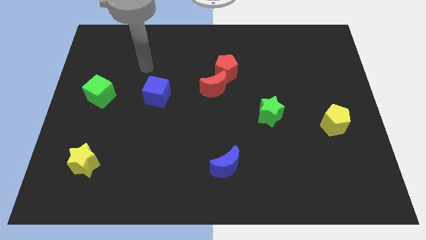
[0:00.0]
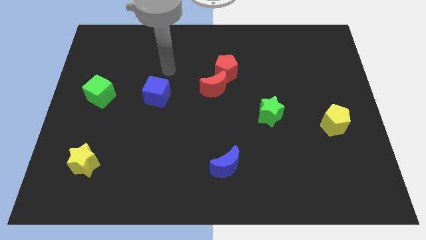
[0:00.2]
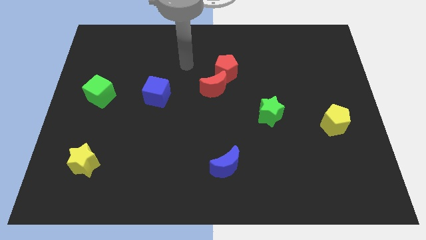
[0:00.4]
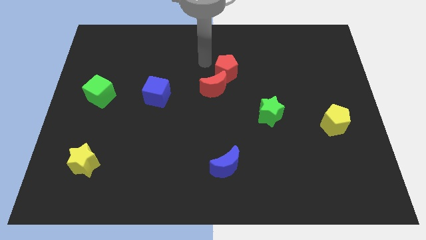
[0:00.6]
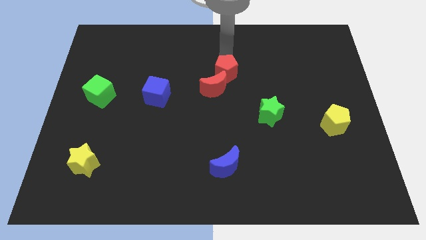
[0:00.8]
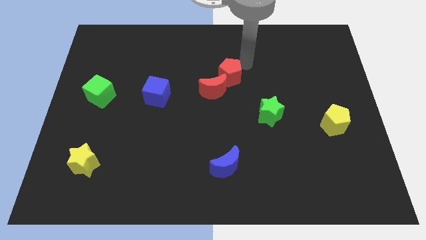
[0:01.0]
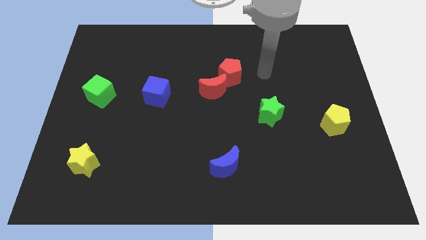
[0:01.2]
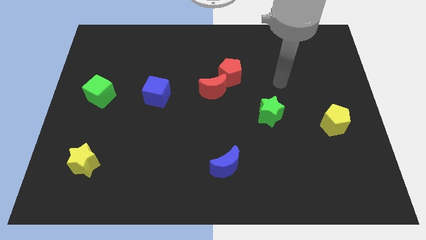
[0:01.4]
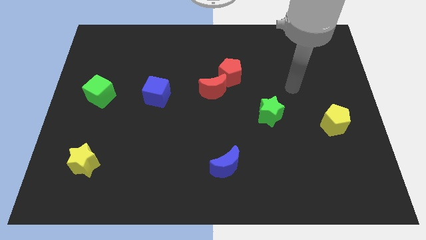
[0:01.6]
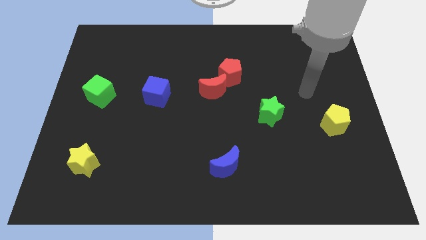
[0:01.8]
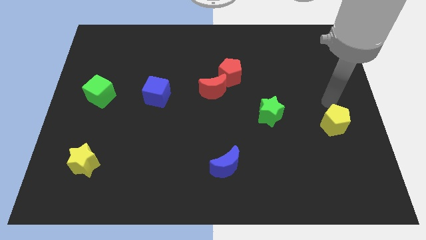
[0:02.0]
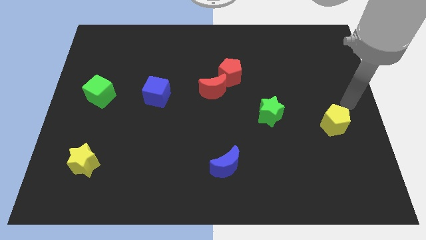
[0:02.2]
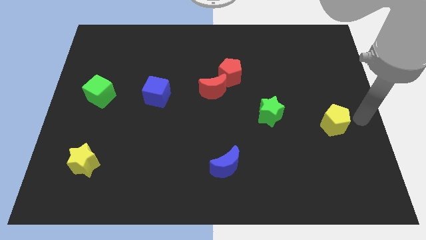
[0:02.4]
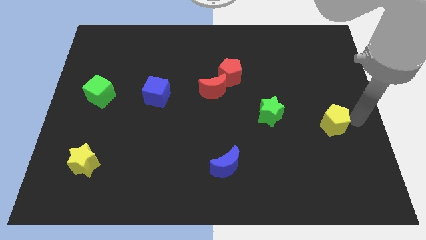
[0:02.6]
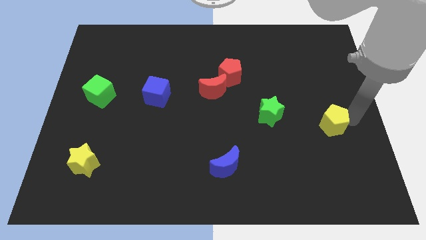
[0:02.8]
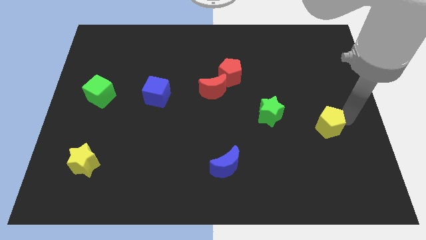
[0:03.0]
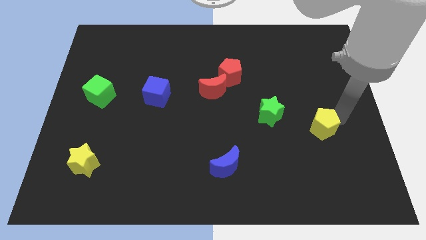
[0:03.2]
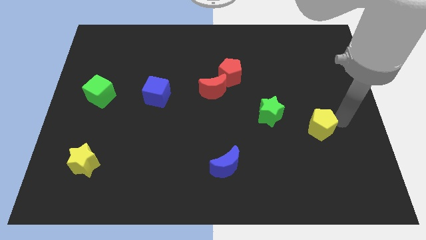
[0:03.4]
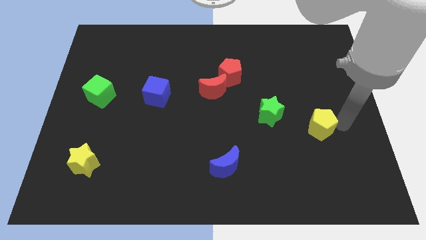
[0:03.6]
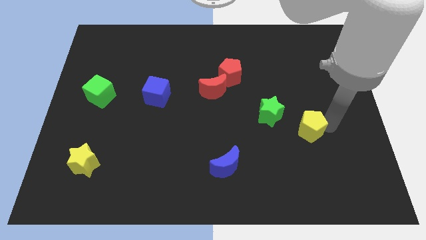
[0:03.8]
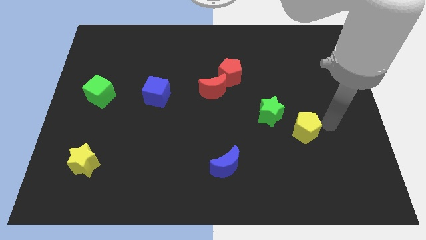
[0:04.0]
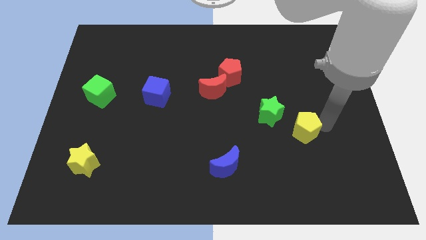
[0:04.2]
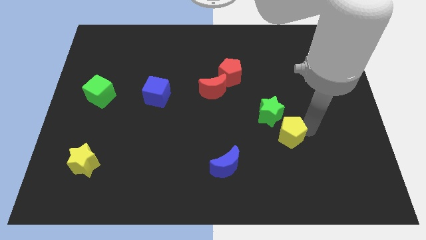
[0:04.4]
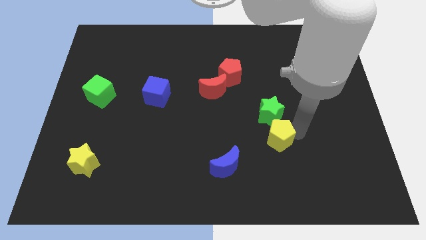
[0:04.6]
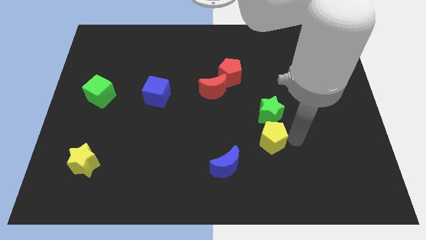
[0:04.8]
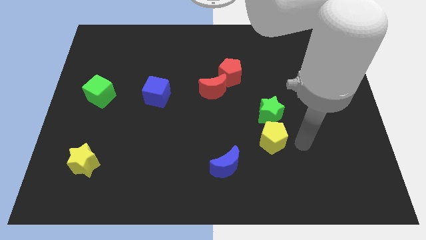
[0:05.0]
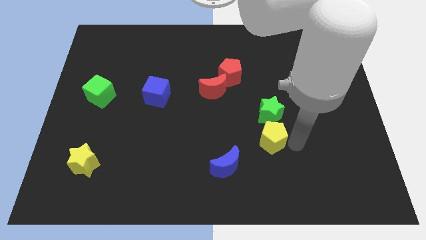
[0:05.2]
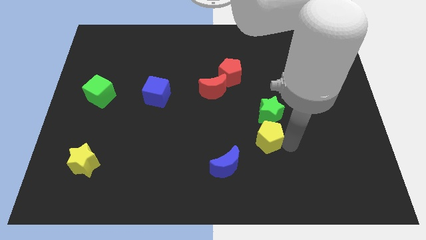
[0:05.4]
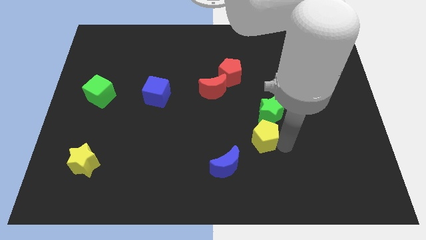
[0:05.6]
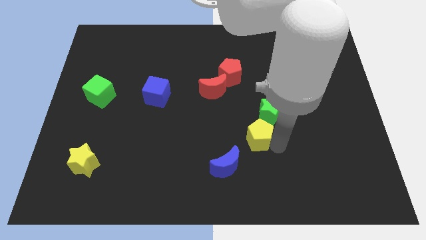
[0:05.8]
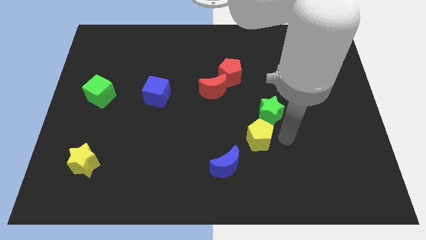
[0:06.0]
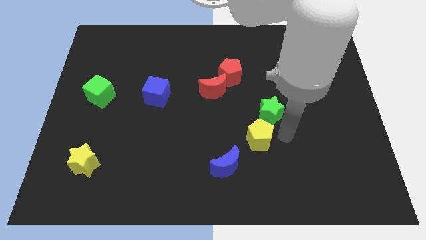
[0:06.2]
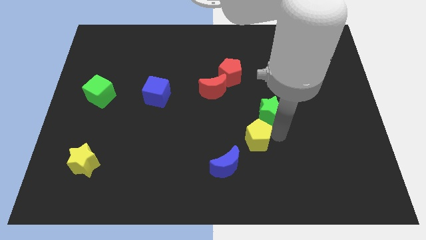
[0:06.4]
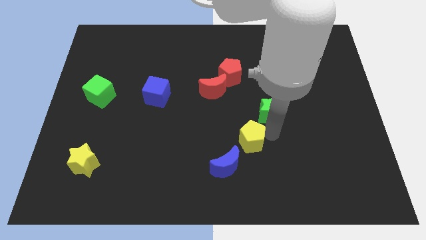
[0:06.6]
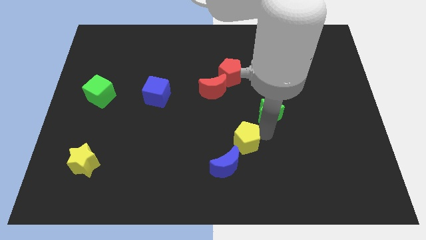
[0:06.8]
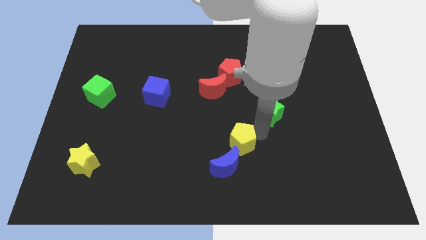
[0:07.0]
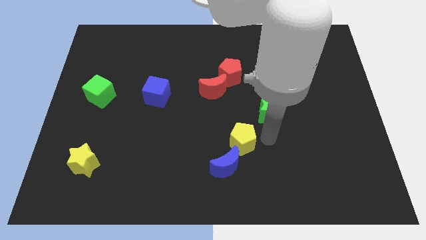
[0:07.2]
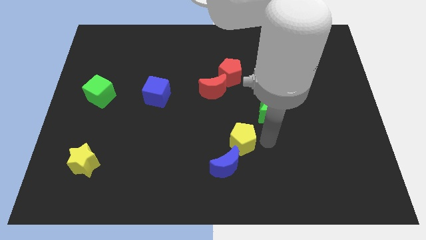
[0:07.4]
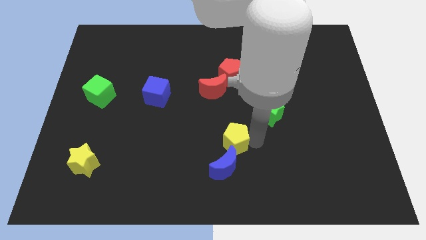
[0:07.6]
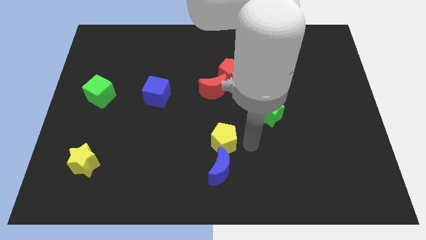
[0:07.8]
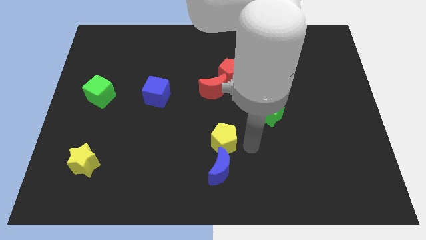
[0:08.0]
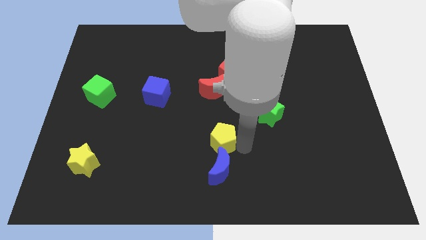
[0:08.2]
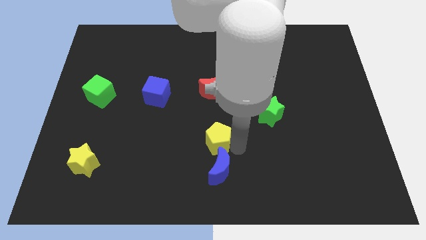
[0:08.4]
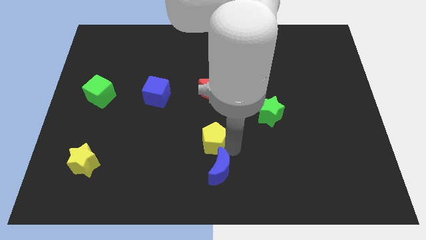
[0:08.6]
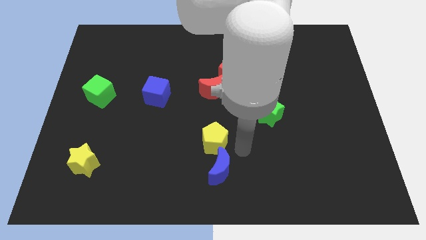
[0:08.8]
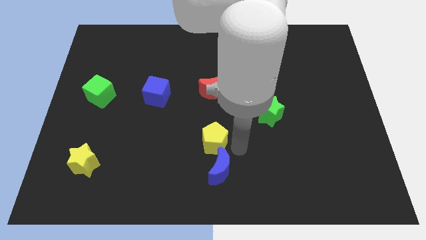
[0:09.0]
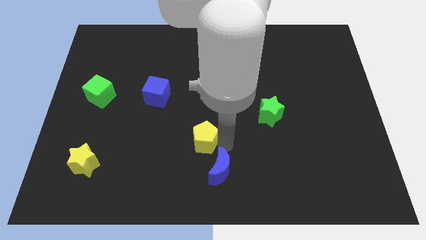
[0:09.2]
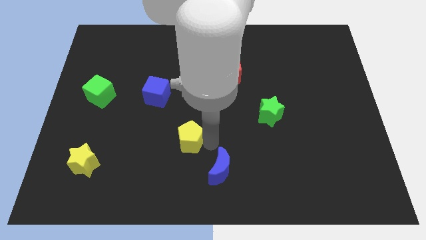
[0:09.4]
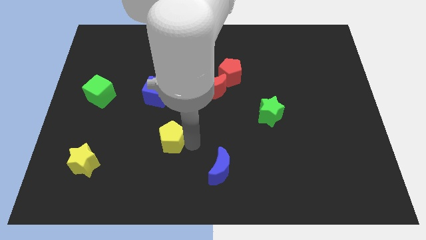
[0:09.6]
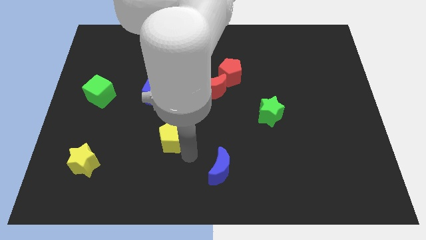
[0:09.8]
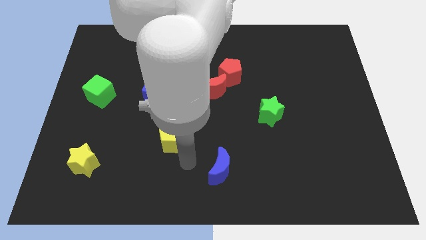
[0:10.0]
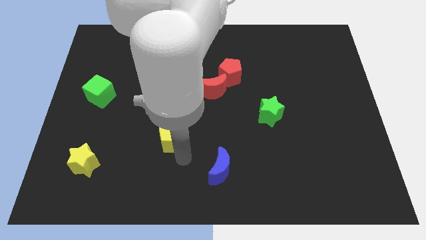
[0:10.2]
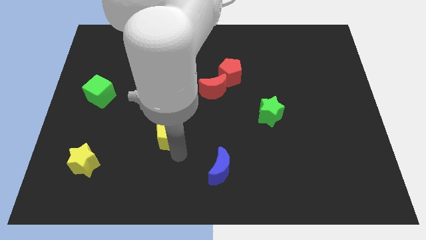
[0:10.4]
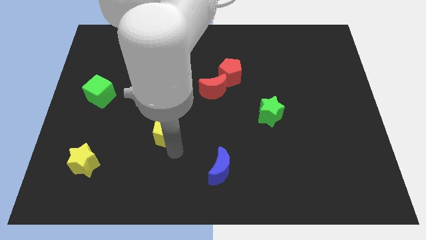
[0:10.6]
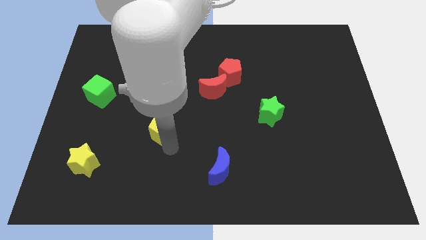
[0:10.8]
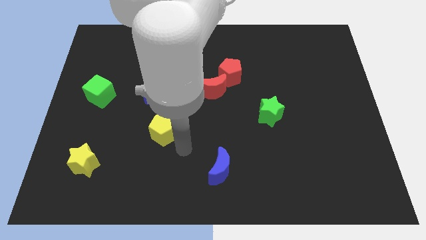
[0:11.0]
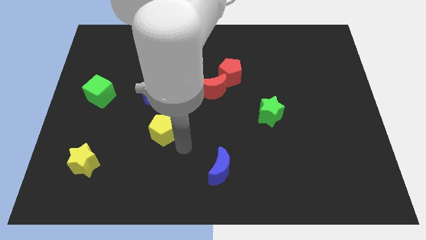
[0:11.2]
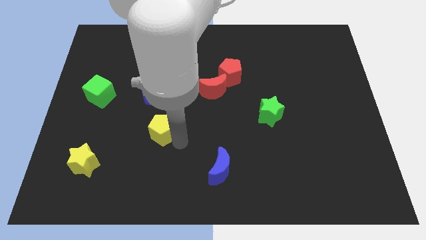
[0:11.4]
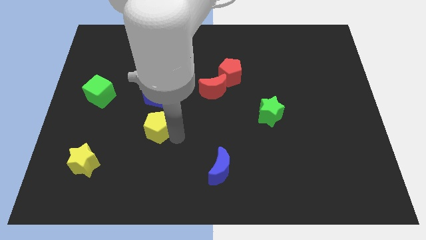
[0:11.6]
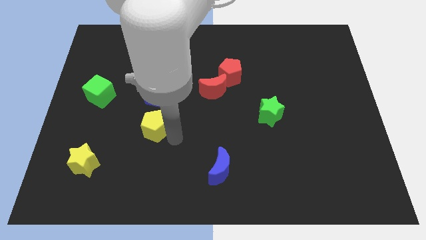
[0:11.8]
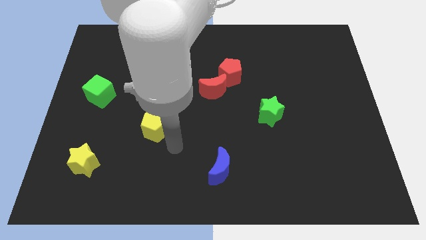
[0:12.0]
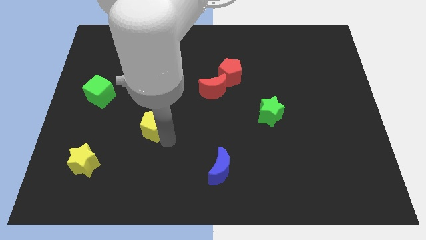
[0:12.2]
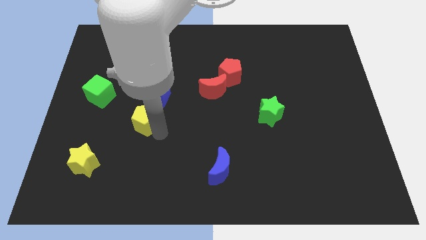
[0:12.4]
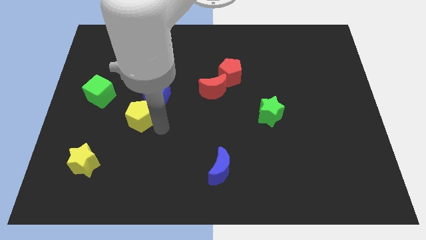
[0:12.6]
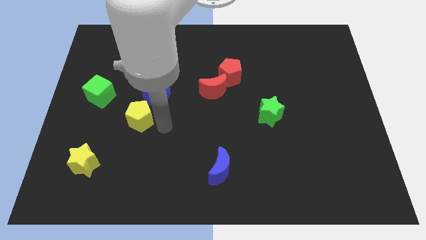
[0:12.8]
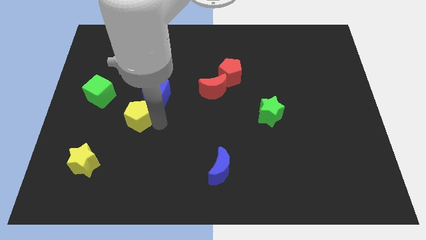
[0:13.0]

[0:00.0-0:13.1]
move the yellow pentagon diagonally down and to the right of the green cube

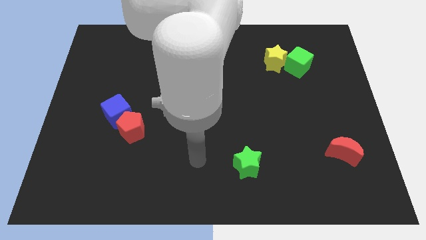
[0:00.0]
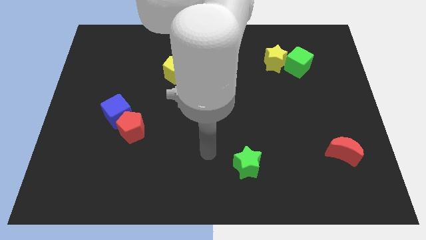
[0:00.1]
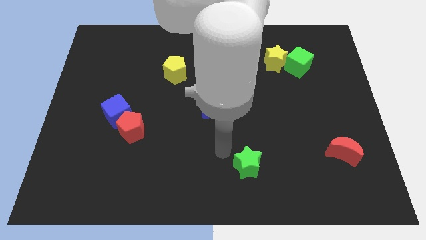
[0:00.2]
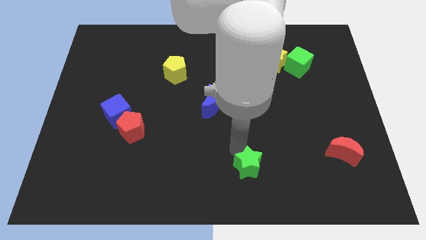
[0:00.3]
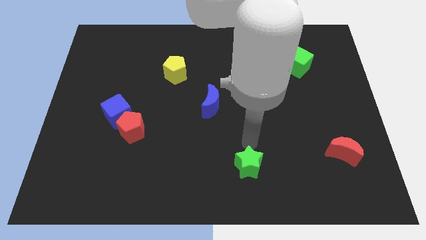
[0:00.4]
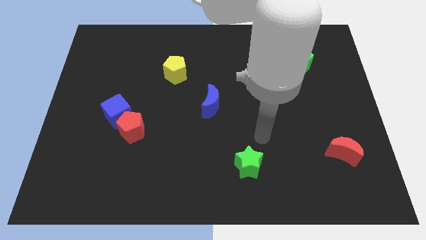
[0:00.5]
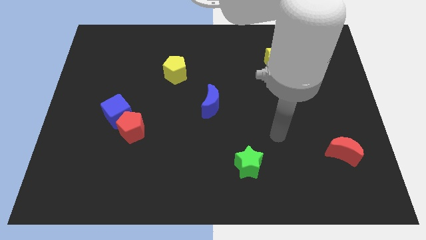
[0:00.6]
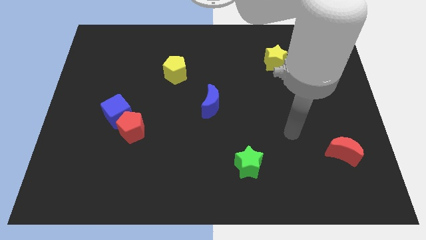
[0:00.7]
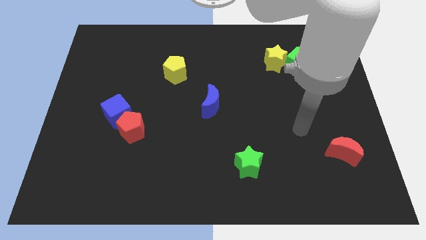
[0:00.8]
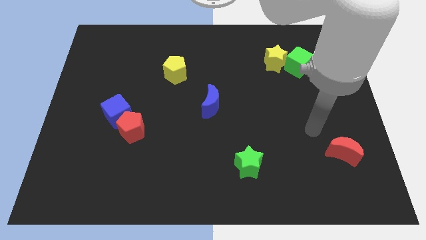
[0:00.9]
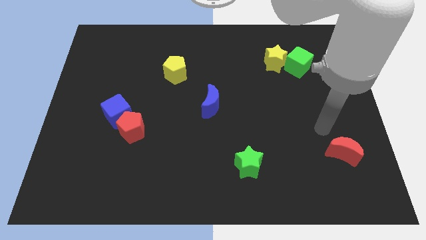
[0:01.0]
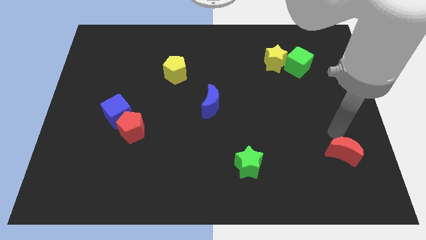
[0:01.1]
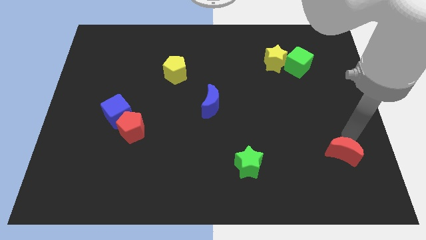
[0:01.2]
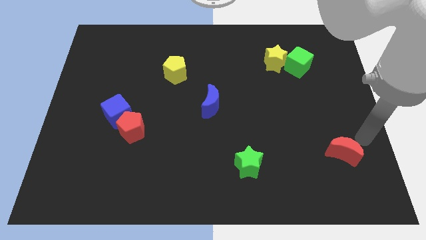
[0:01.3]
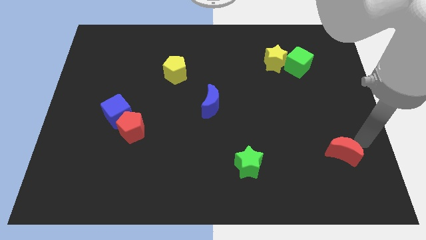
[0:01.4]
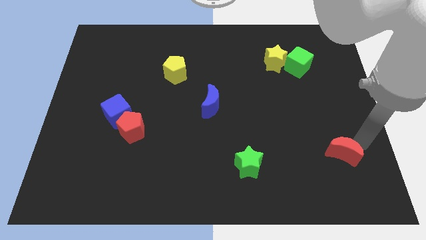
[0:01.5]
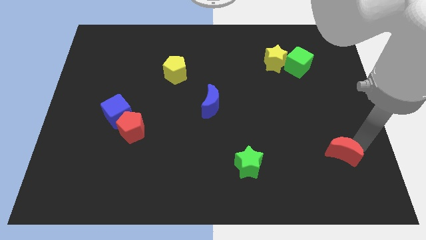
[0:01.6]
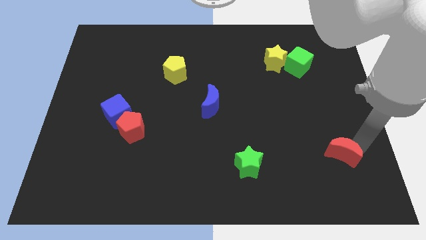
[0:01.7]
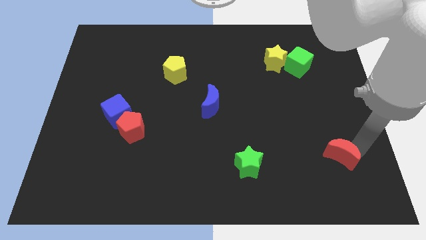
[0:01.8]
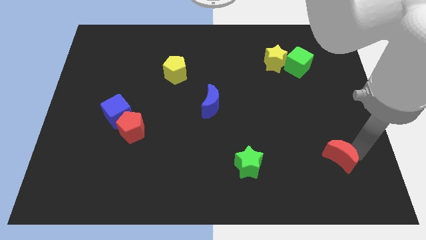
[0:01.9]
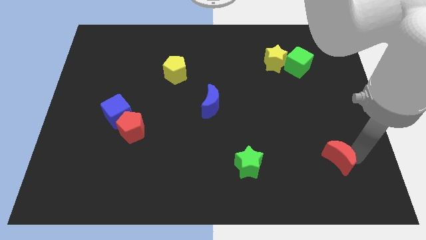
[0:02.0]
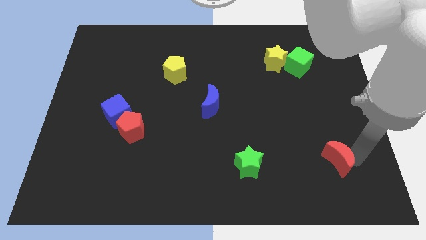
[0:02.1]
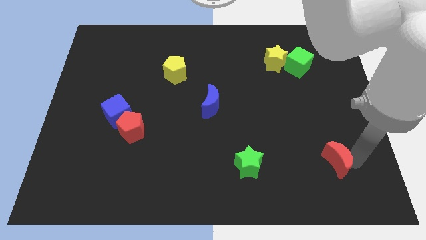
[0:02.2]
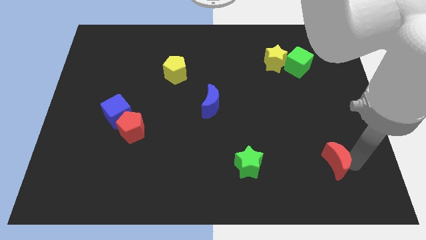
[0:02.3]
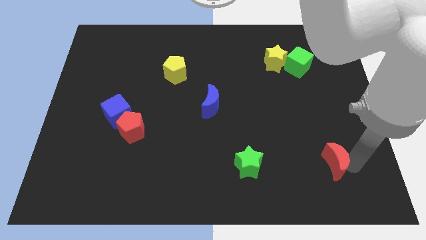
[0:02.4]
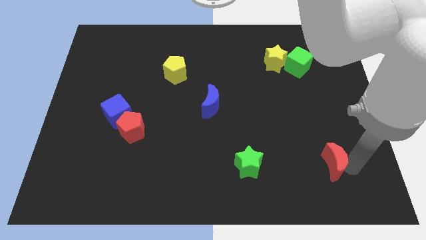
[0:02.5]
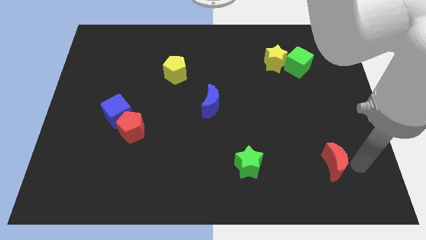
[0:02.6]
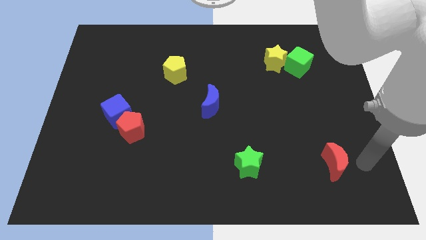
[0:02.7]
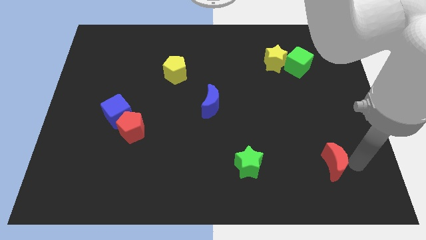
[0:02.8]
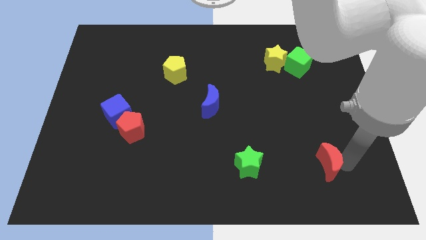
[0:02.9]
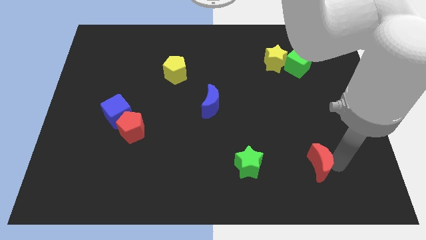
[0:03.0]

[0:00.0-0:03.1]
put the red moon right of the green star
